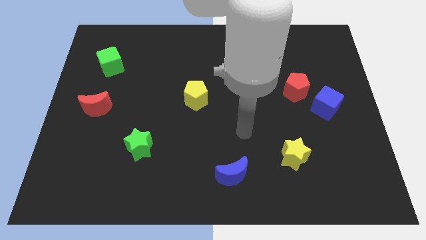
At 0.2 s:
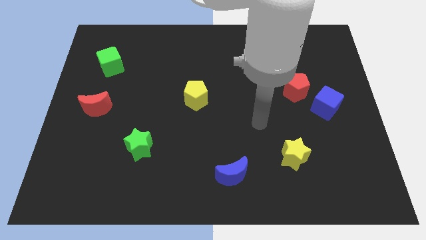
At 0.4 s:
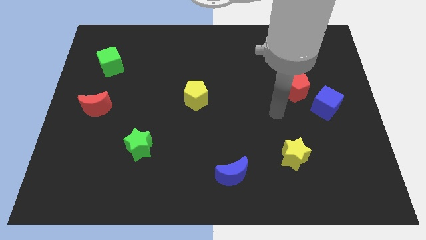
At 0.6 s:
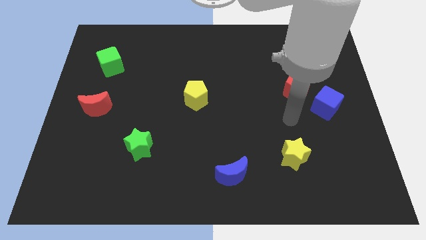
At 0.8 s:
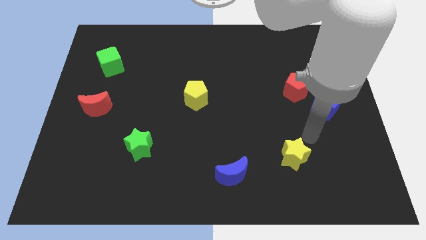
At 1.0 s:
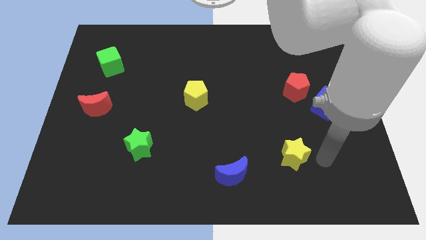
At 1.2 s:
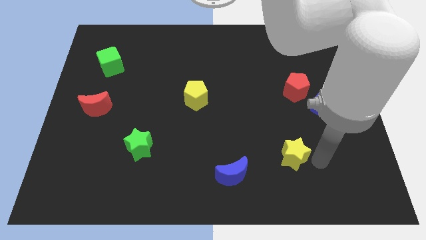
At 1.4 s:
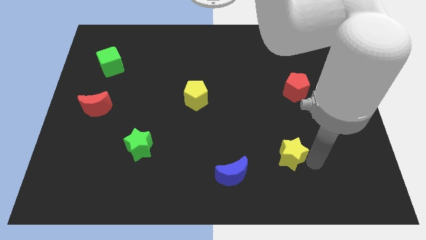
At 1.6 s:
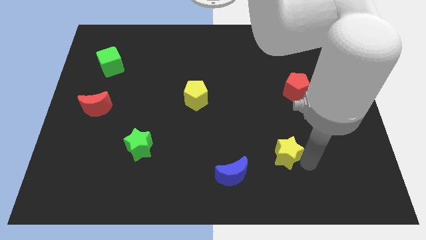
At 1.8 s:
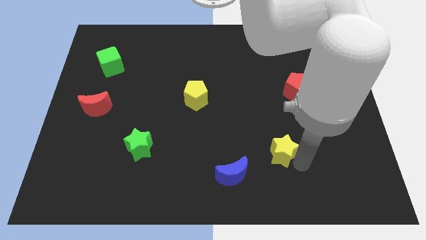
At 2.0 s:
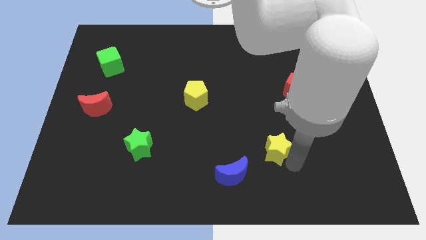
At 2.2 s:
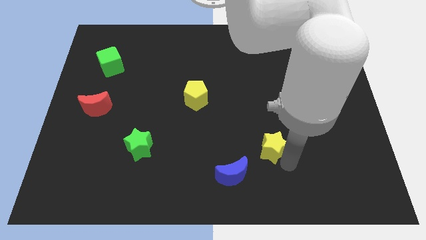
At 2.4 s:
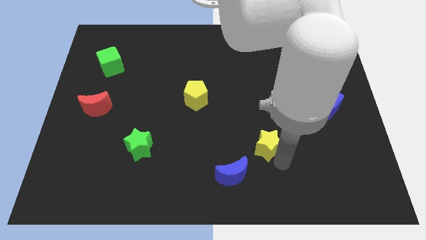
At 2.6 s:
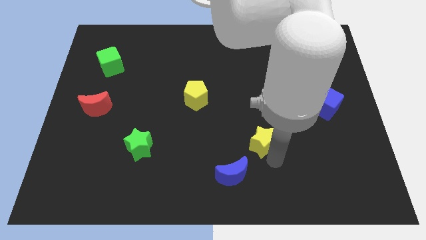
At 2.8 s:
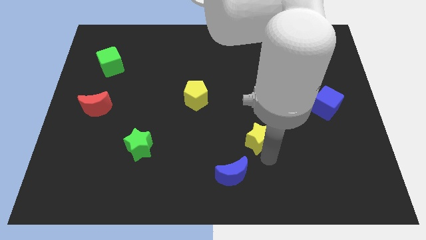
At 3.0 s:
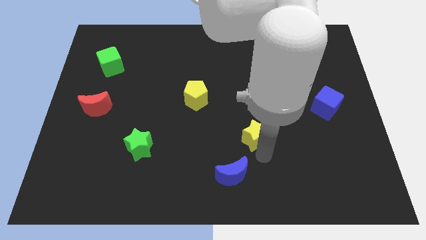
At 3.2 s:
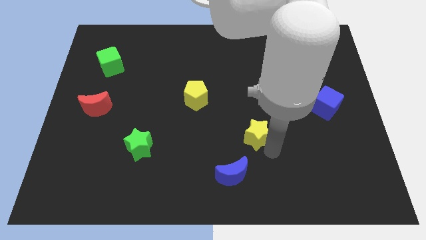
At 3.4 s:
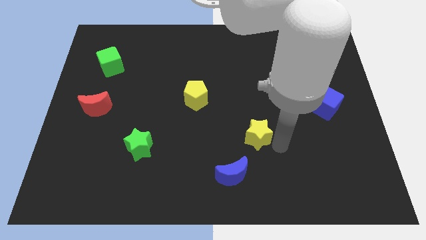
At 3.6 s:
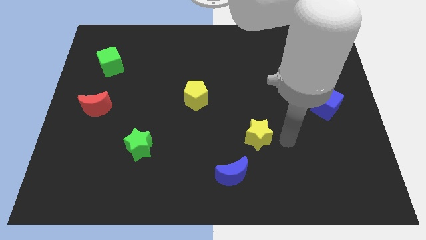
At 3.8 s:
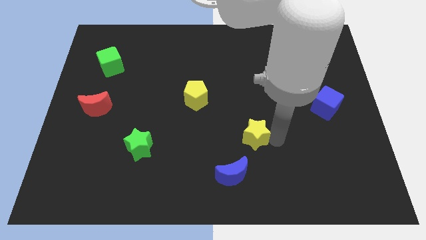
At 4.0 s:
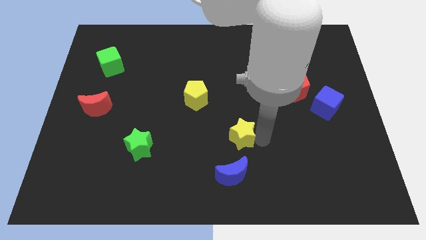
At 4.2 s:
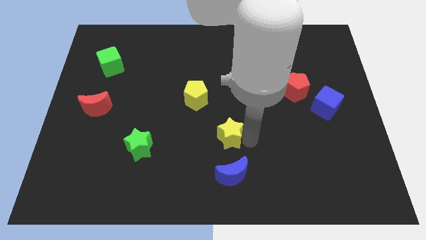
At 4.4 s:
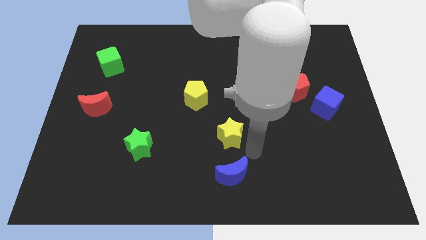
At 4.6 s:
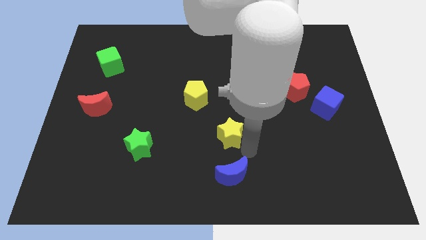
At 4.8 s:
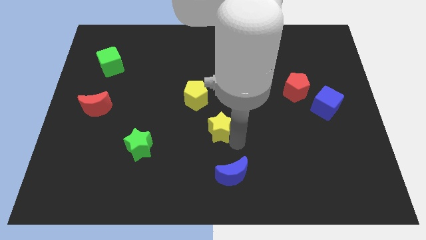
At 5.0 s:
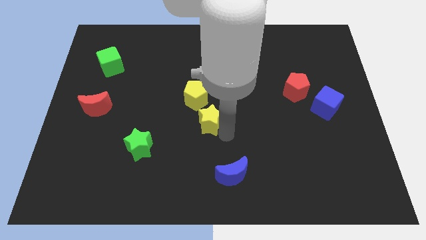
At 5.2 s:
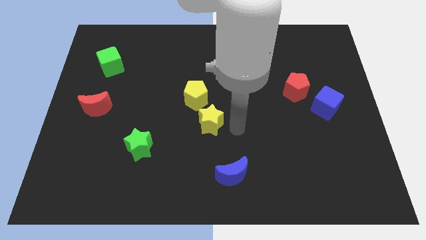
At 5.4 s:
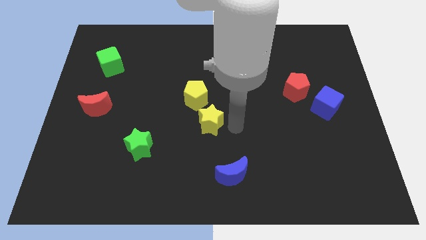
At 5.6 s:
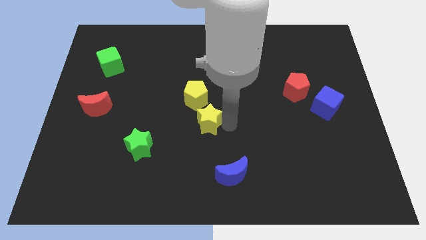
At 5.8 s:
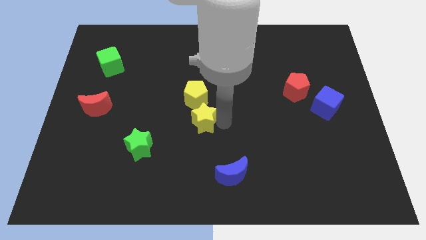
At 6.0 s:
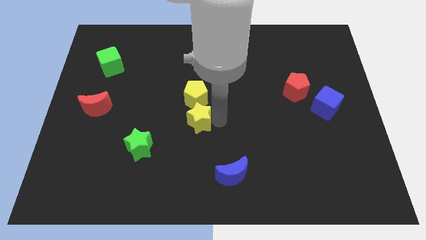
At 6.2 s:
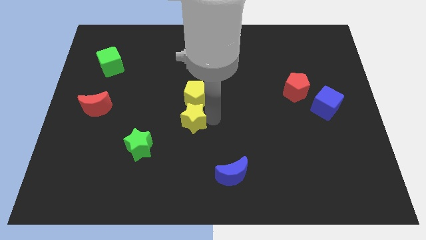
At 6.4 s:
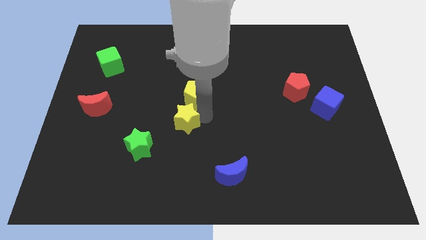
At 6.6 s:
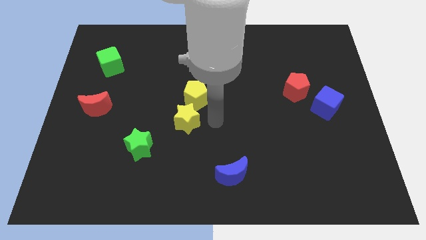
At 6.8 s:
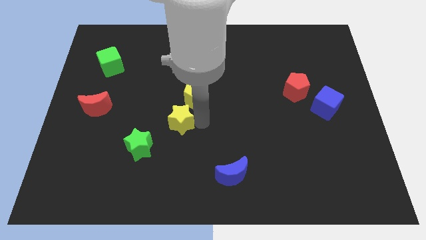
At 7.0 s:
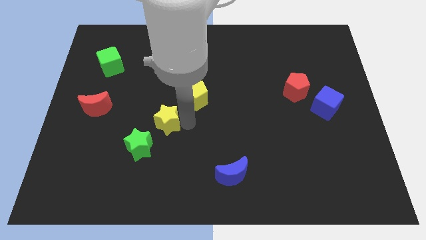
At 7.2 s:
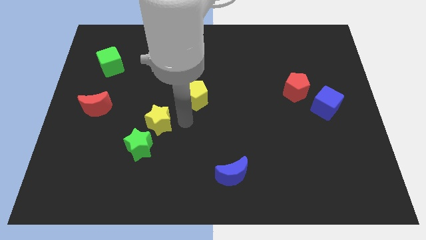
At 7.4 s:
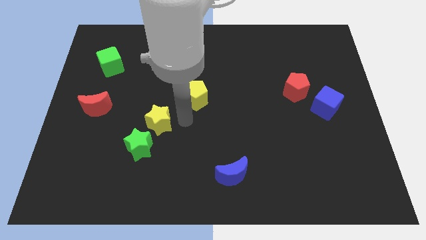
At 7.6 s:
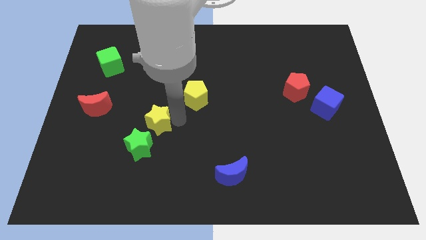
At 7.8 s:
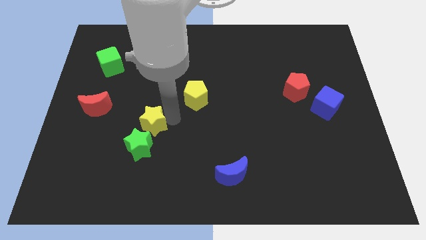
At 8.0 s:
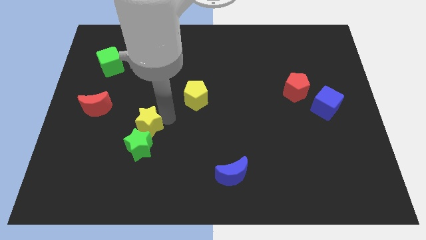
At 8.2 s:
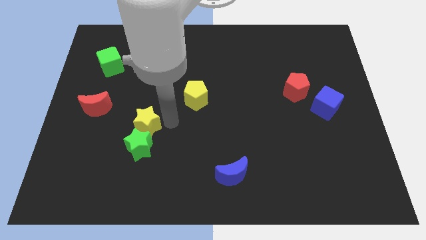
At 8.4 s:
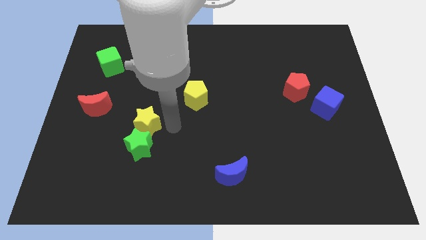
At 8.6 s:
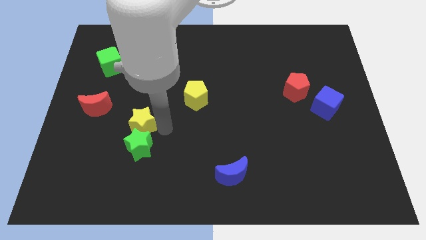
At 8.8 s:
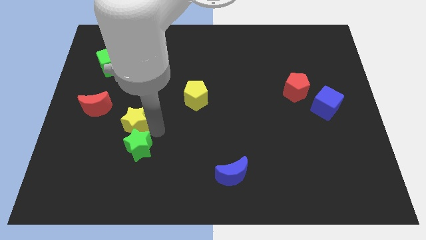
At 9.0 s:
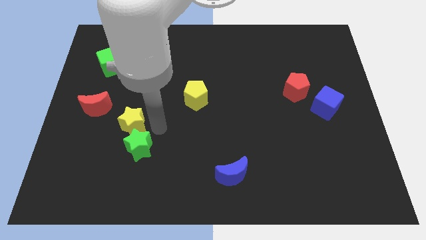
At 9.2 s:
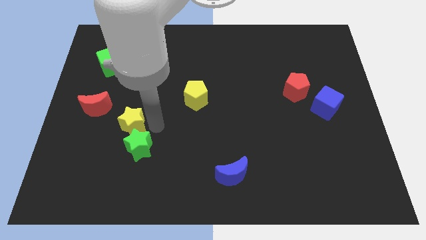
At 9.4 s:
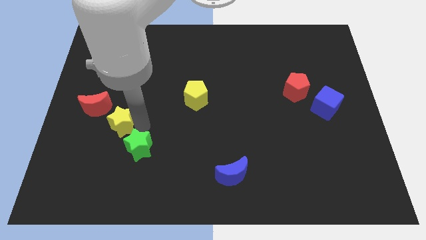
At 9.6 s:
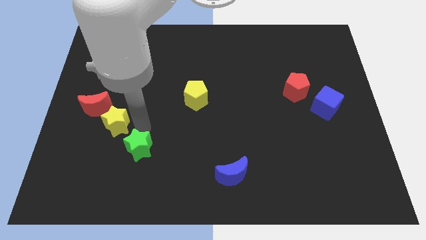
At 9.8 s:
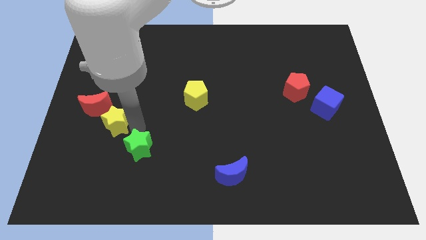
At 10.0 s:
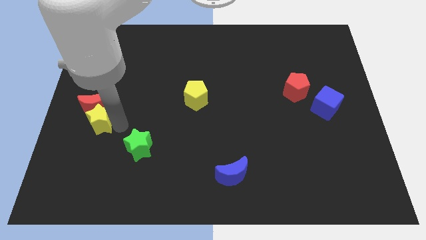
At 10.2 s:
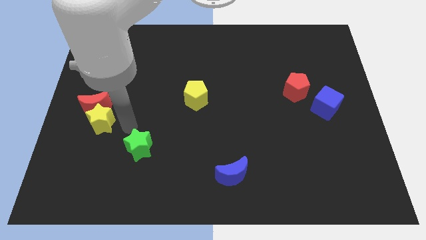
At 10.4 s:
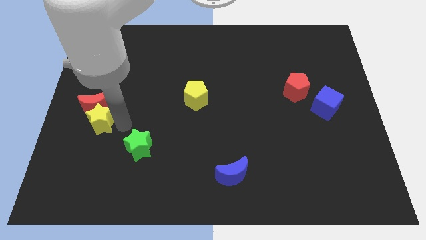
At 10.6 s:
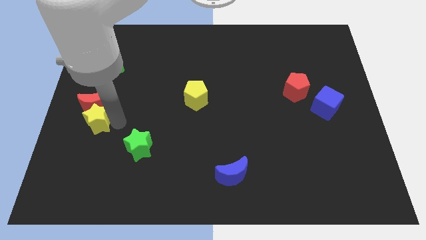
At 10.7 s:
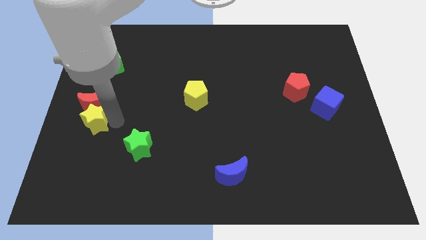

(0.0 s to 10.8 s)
push the yellow star to the left side

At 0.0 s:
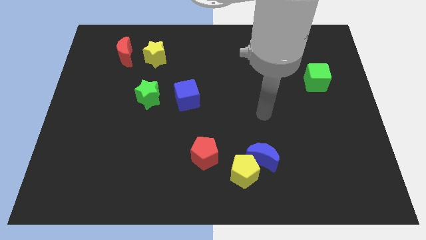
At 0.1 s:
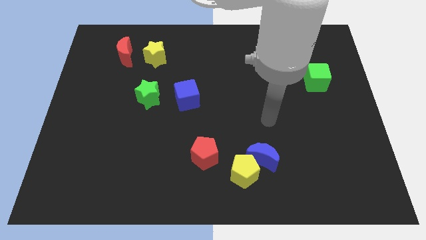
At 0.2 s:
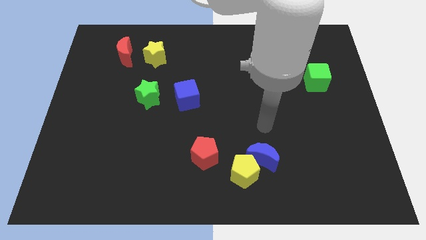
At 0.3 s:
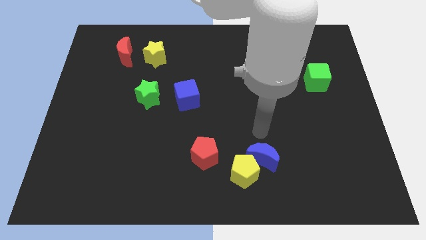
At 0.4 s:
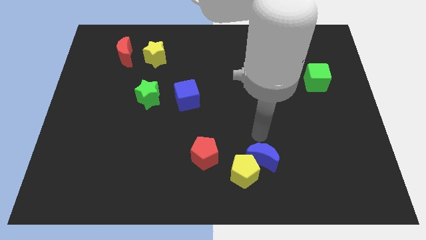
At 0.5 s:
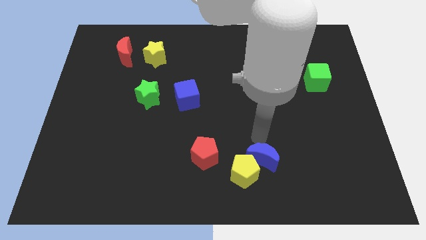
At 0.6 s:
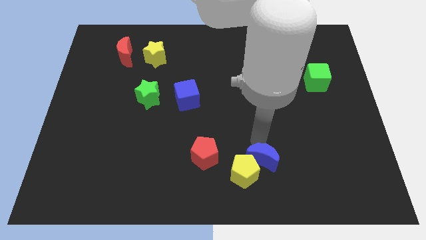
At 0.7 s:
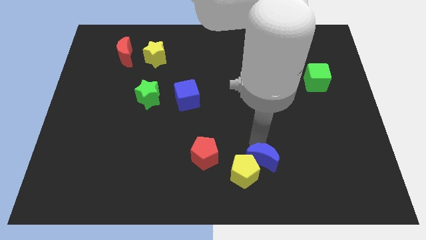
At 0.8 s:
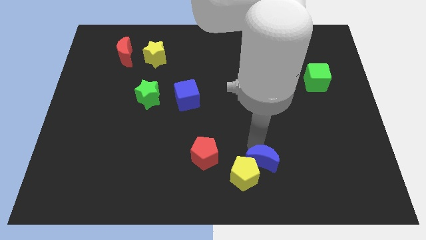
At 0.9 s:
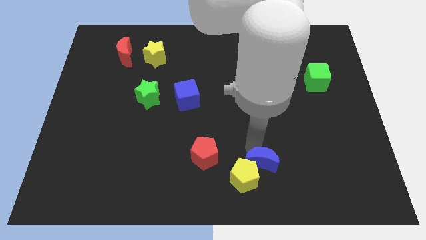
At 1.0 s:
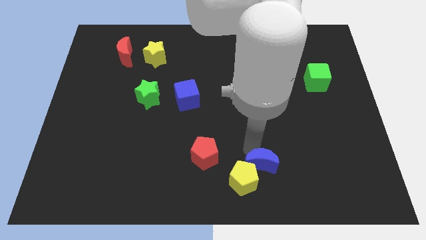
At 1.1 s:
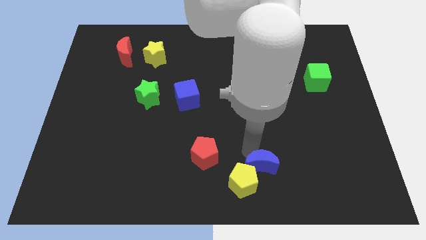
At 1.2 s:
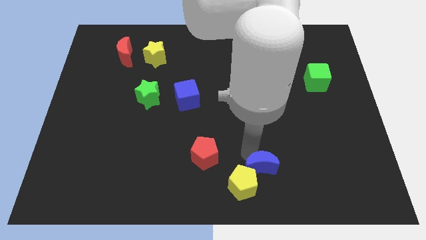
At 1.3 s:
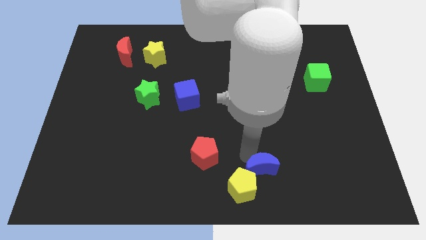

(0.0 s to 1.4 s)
slide the blue moon to the bottom side
